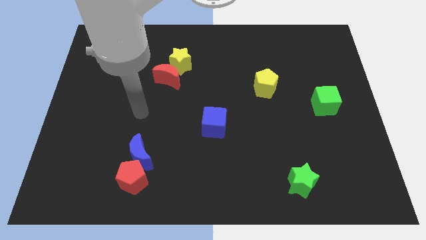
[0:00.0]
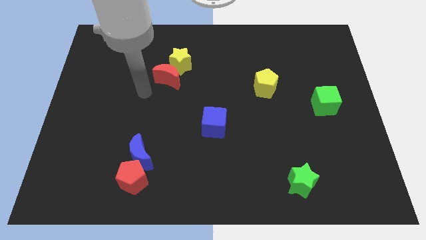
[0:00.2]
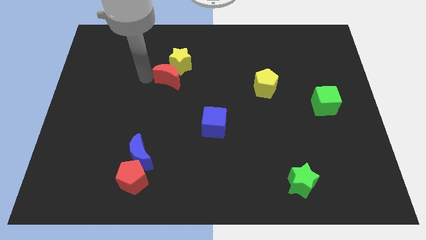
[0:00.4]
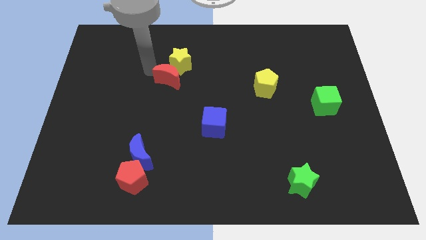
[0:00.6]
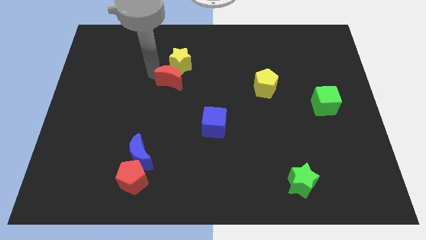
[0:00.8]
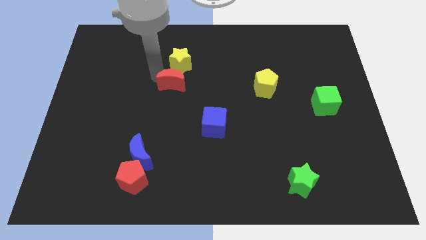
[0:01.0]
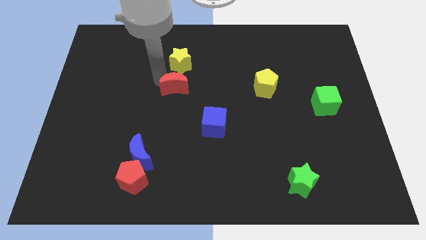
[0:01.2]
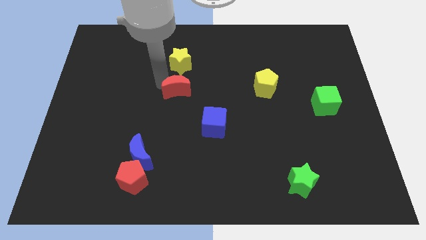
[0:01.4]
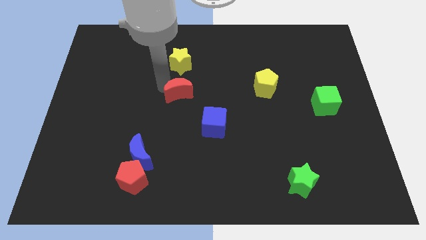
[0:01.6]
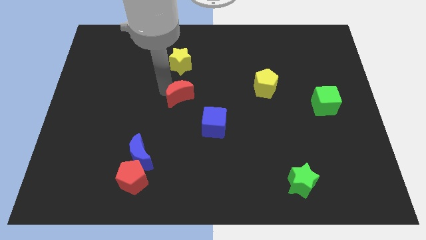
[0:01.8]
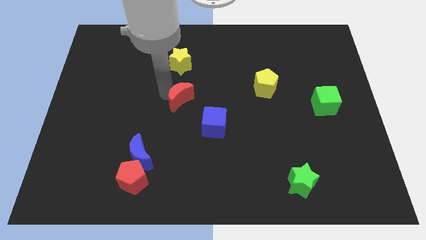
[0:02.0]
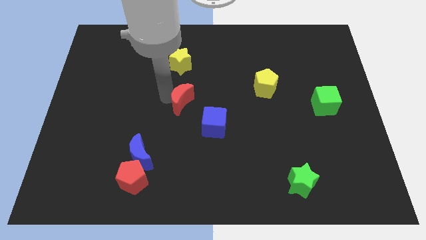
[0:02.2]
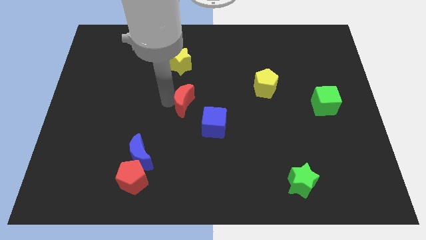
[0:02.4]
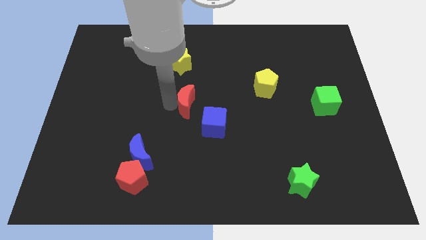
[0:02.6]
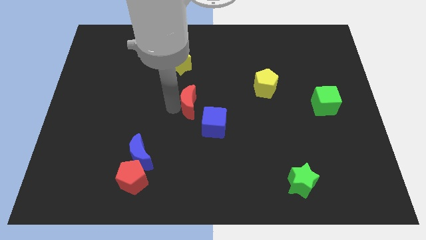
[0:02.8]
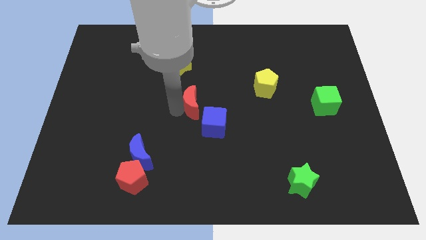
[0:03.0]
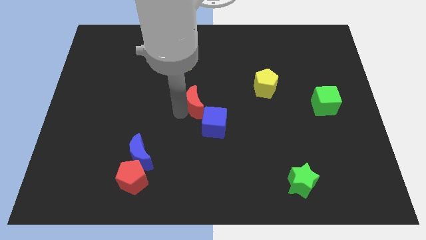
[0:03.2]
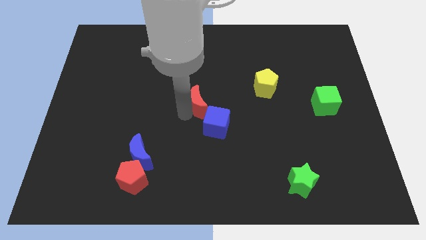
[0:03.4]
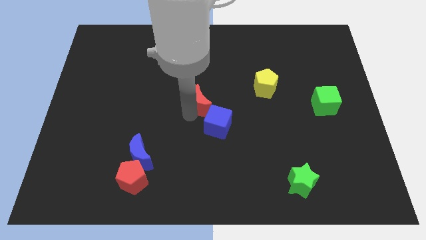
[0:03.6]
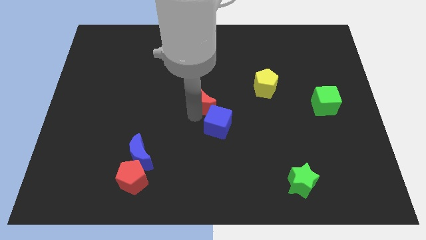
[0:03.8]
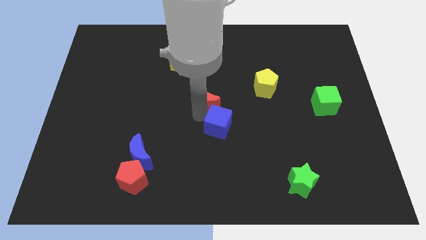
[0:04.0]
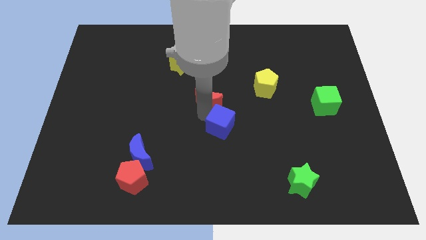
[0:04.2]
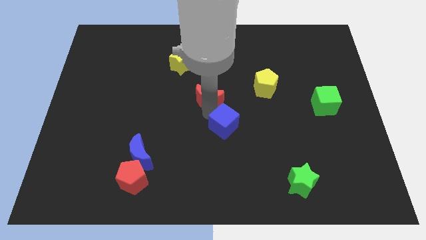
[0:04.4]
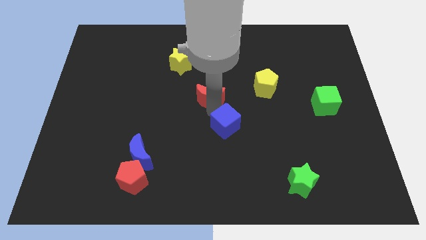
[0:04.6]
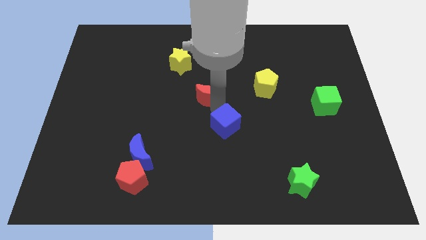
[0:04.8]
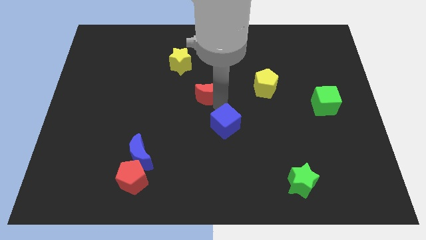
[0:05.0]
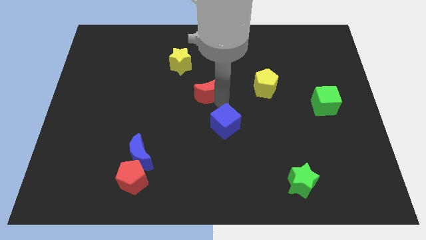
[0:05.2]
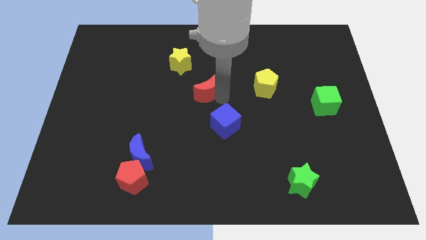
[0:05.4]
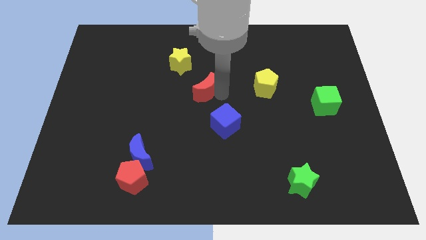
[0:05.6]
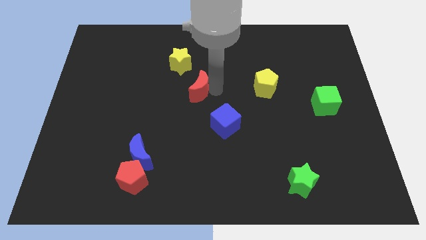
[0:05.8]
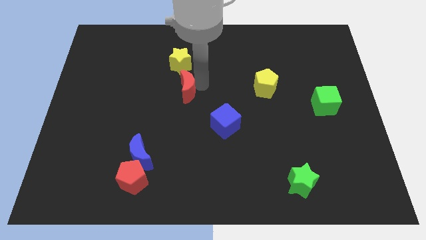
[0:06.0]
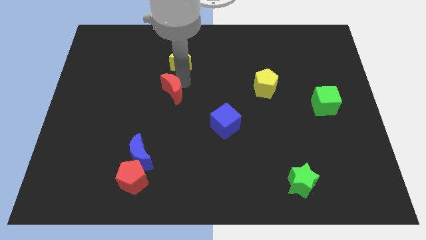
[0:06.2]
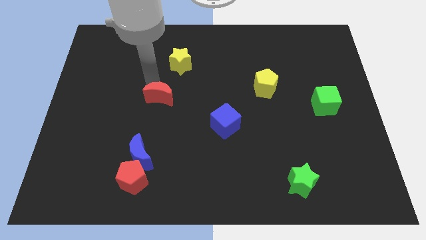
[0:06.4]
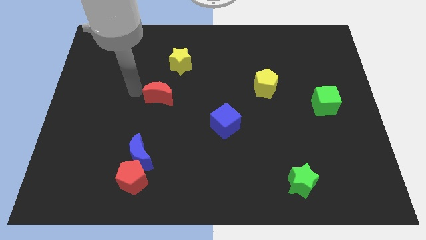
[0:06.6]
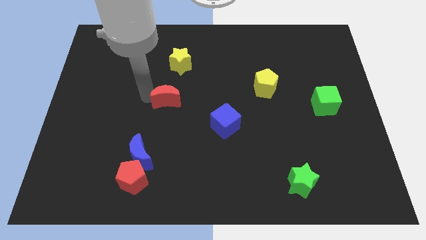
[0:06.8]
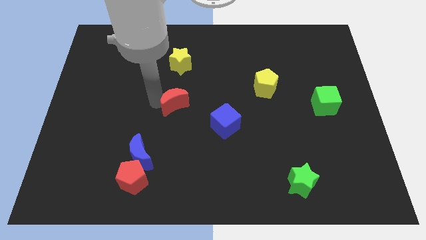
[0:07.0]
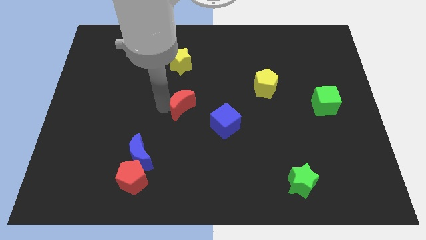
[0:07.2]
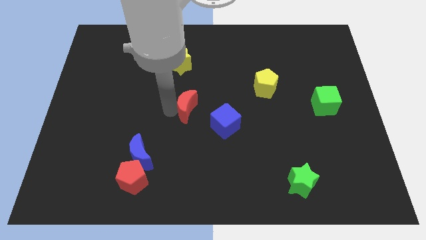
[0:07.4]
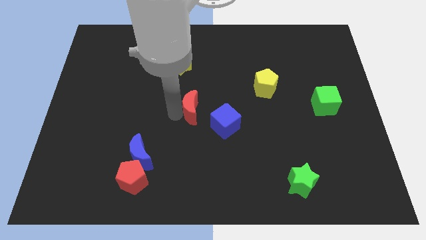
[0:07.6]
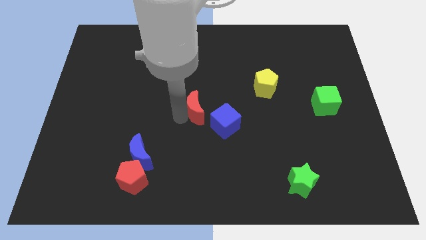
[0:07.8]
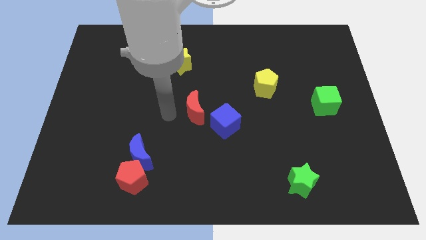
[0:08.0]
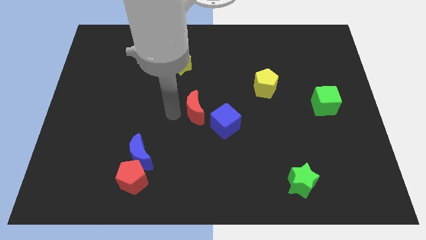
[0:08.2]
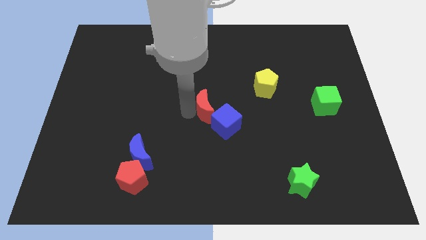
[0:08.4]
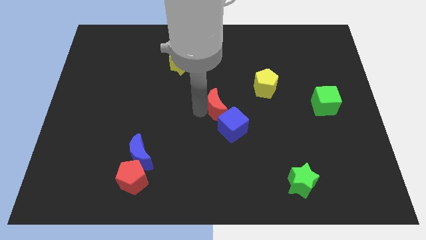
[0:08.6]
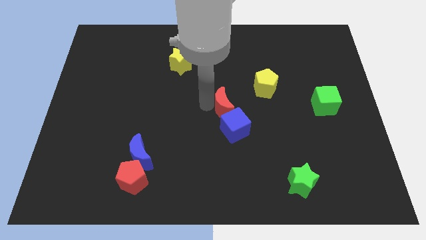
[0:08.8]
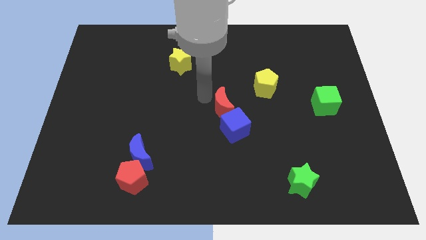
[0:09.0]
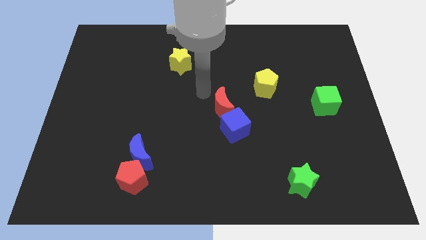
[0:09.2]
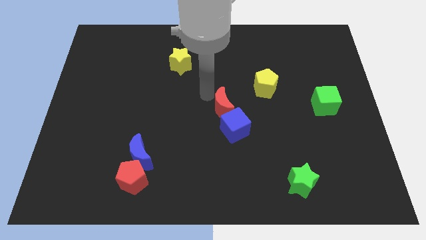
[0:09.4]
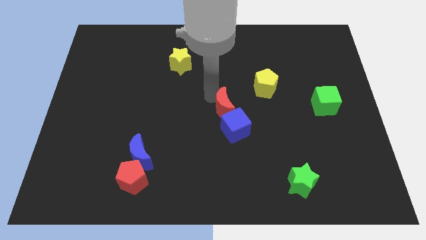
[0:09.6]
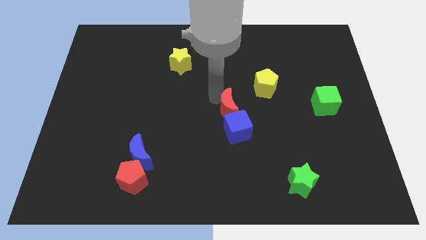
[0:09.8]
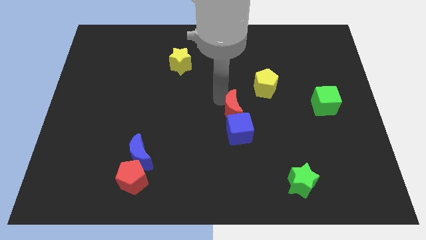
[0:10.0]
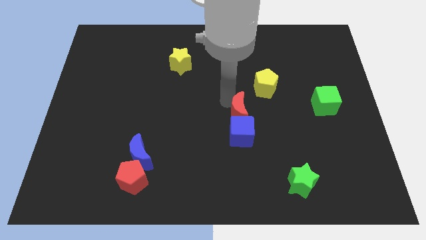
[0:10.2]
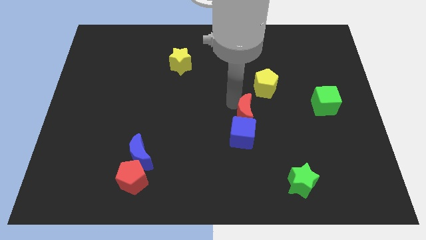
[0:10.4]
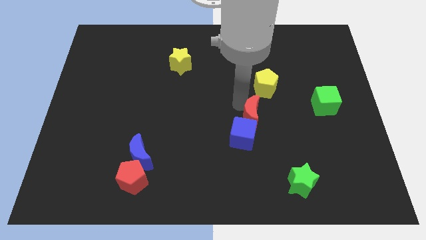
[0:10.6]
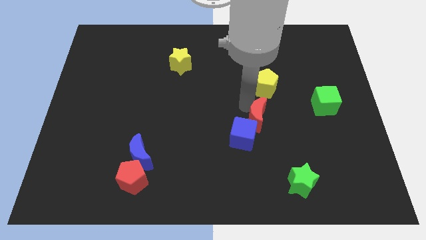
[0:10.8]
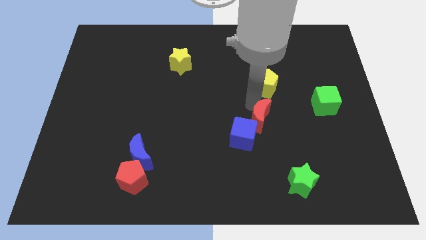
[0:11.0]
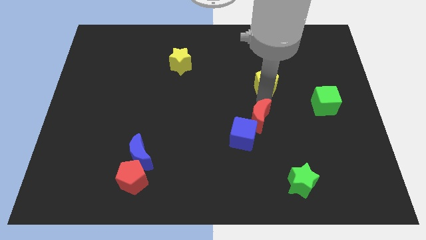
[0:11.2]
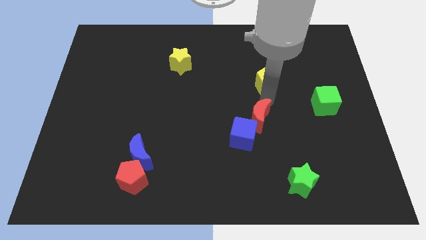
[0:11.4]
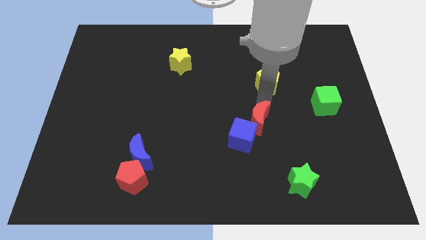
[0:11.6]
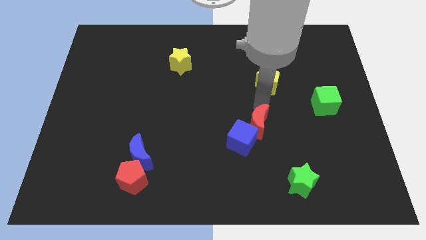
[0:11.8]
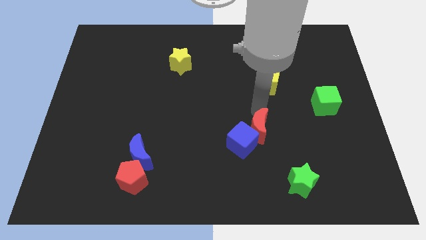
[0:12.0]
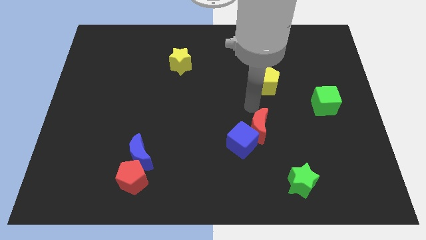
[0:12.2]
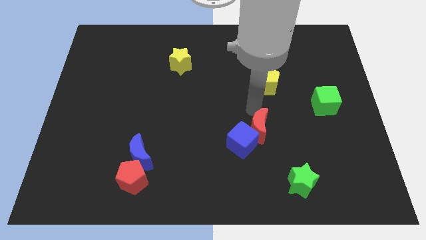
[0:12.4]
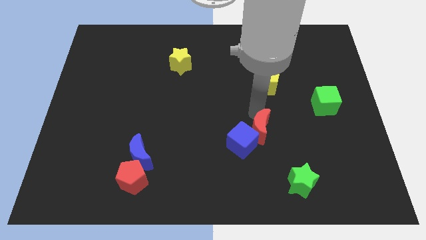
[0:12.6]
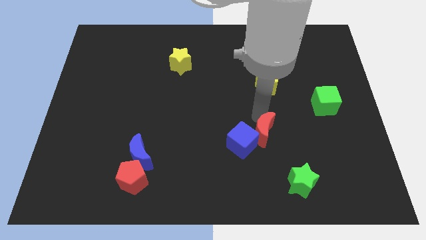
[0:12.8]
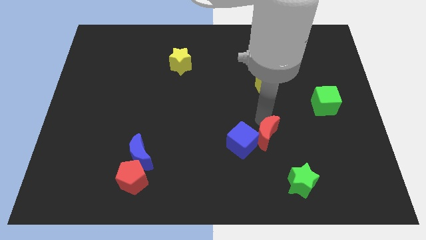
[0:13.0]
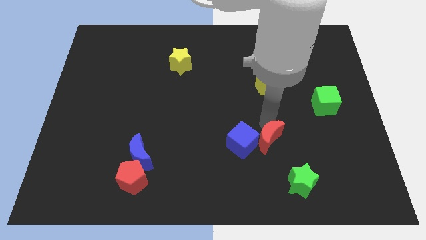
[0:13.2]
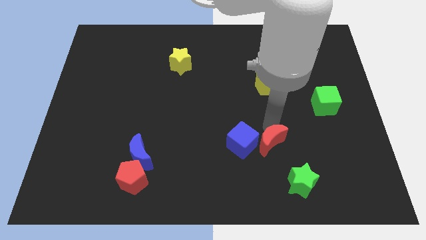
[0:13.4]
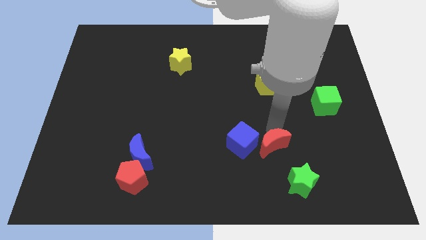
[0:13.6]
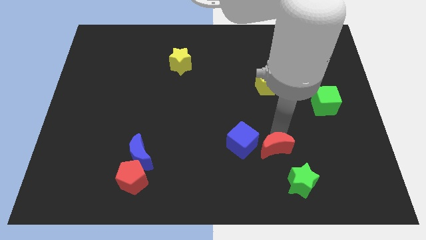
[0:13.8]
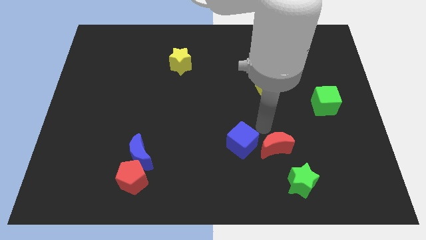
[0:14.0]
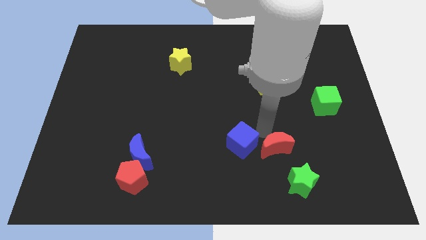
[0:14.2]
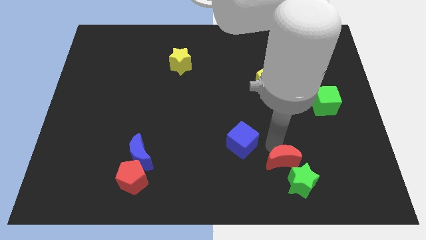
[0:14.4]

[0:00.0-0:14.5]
put the red moon towards the green star

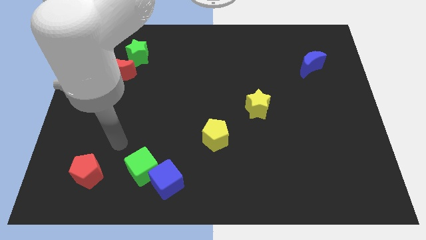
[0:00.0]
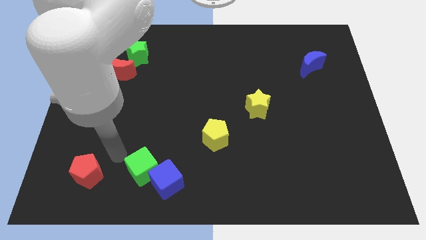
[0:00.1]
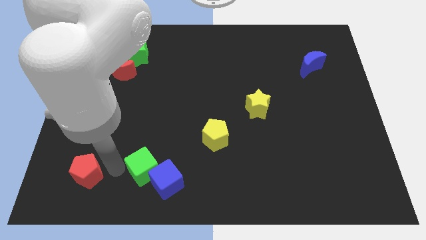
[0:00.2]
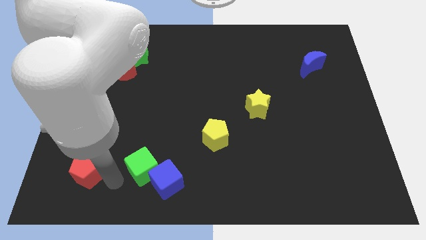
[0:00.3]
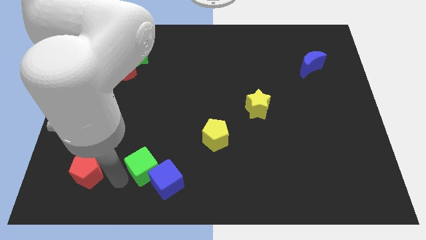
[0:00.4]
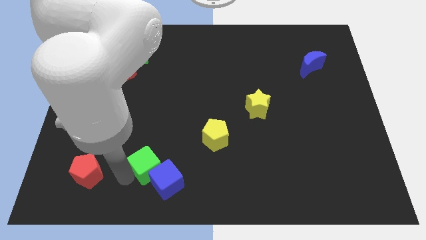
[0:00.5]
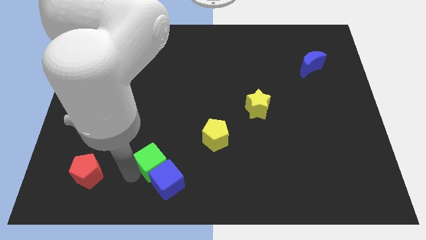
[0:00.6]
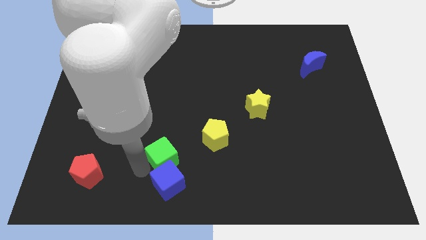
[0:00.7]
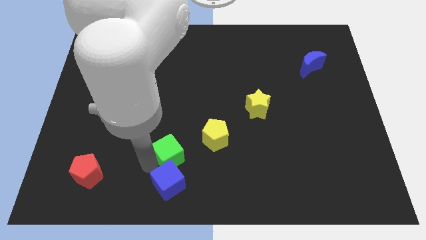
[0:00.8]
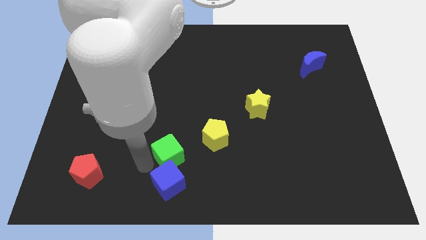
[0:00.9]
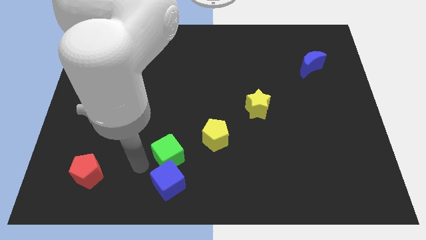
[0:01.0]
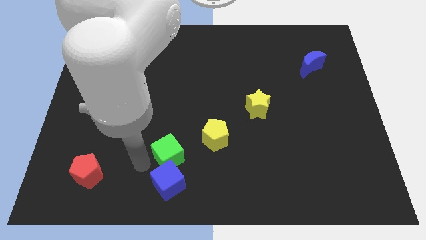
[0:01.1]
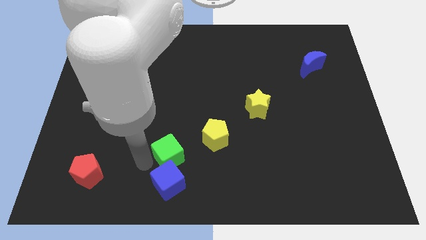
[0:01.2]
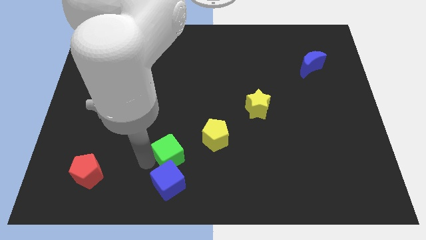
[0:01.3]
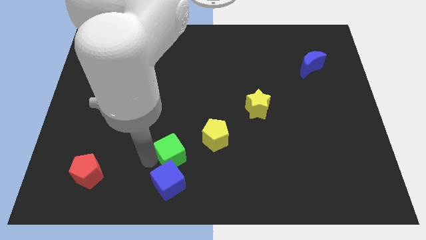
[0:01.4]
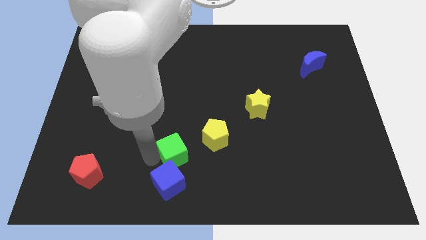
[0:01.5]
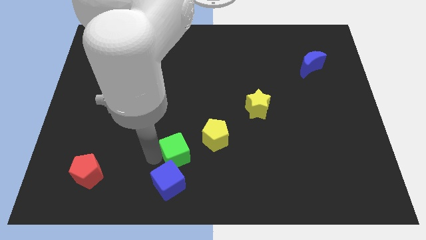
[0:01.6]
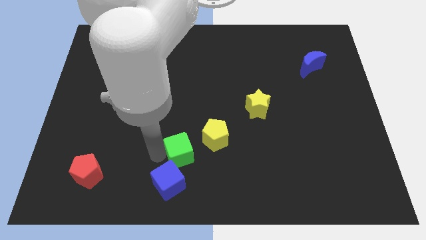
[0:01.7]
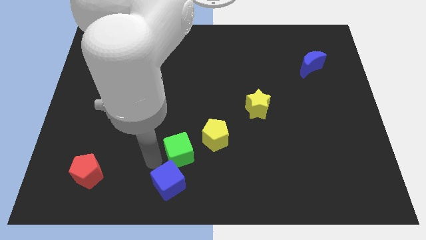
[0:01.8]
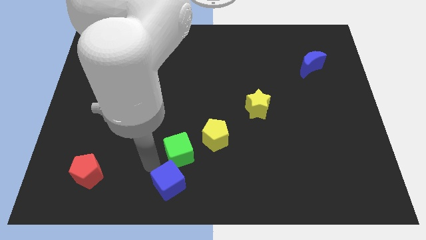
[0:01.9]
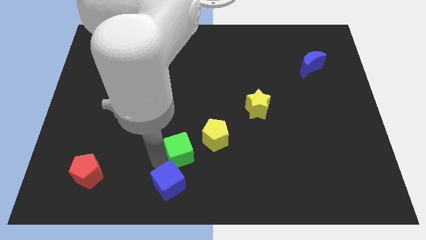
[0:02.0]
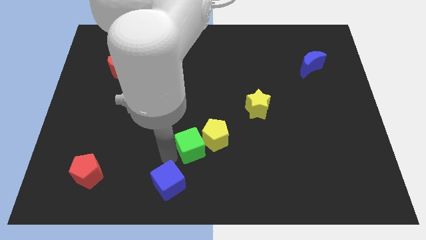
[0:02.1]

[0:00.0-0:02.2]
move the green cube close to the yellow pentagon
